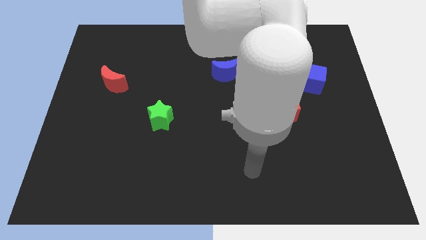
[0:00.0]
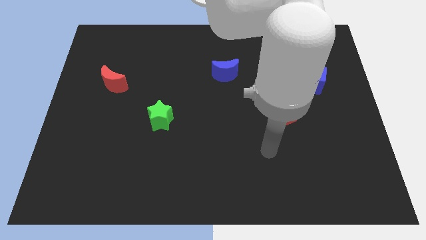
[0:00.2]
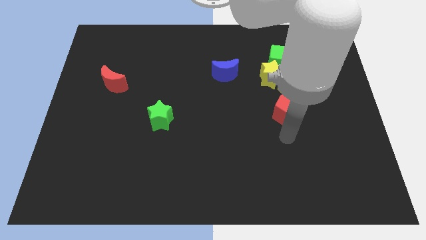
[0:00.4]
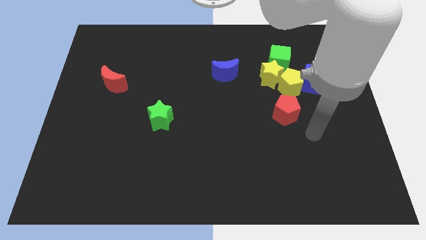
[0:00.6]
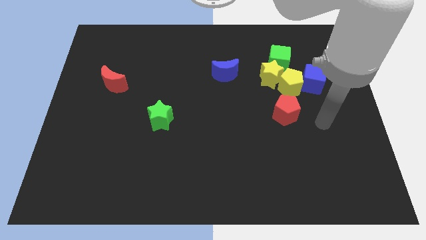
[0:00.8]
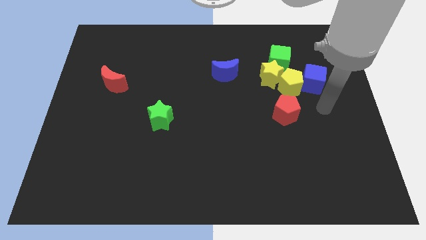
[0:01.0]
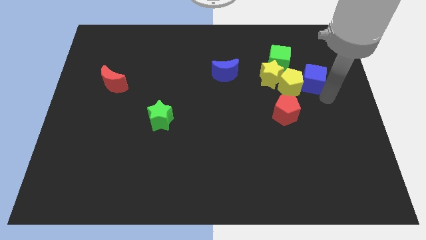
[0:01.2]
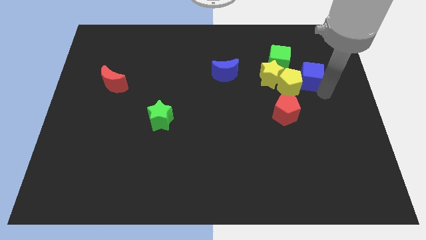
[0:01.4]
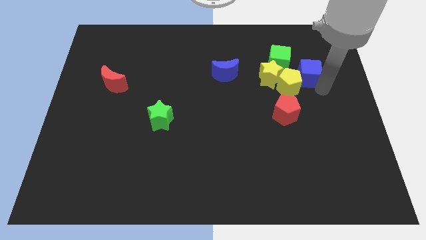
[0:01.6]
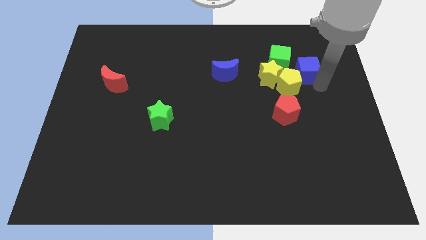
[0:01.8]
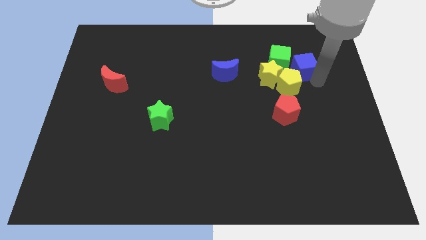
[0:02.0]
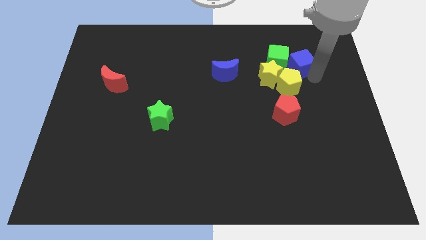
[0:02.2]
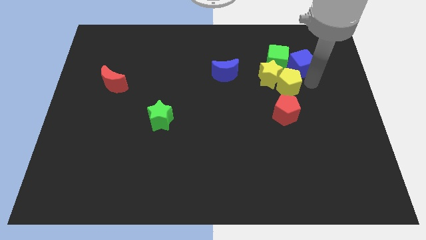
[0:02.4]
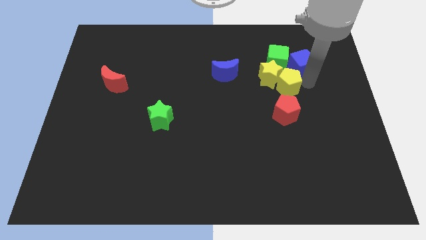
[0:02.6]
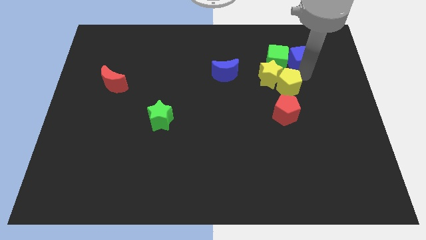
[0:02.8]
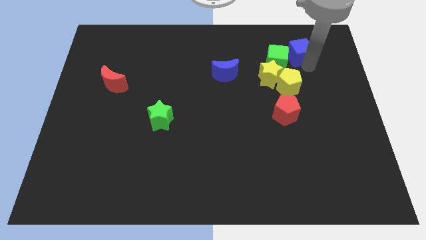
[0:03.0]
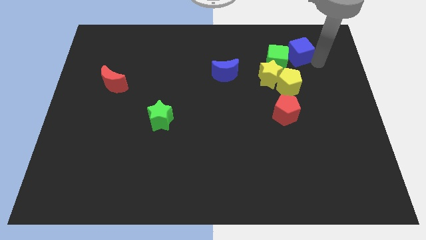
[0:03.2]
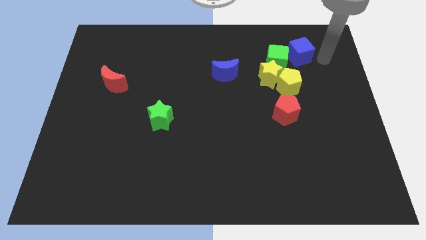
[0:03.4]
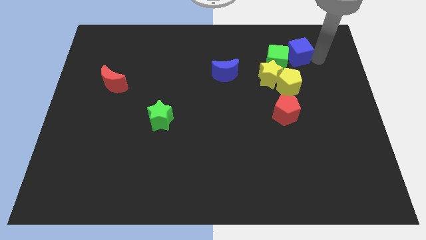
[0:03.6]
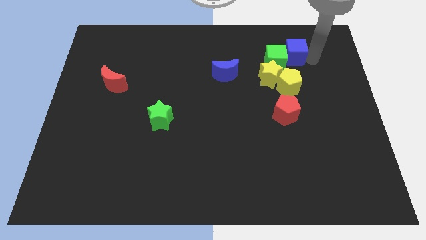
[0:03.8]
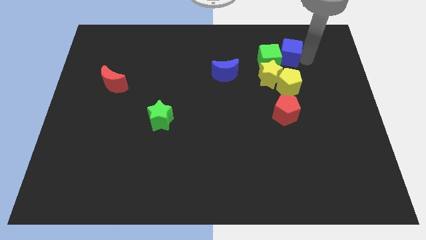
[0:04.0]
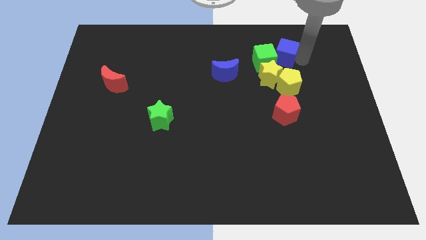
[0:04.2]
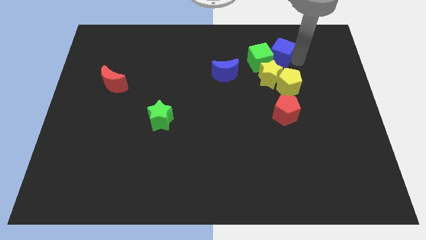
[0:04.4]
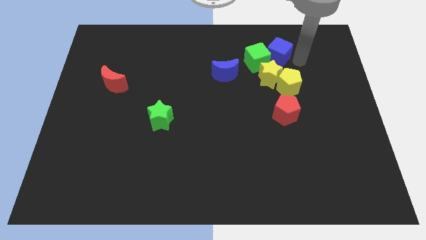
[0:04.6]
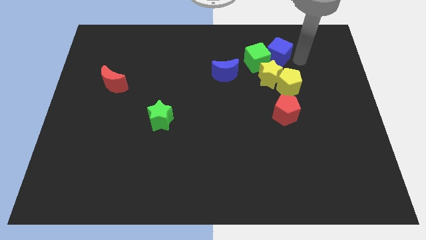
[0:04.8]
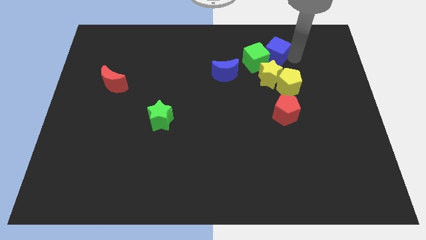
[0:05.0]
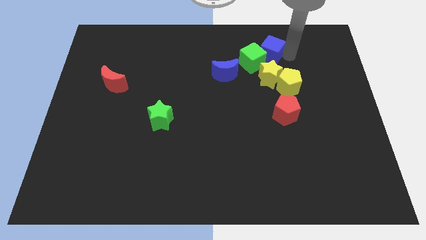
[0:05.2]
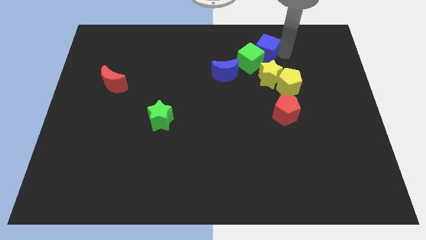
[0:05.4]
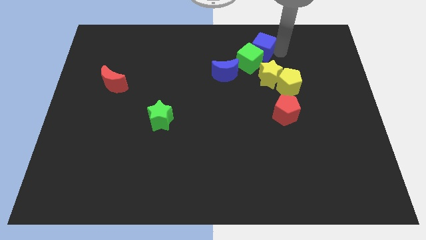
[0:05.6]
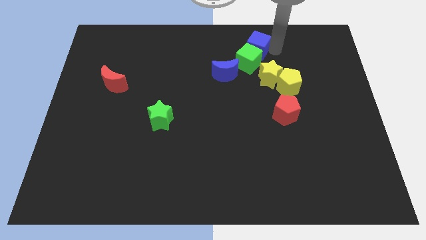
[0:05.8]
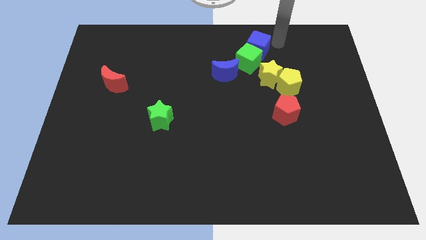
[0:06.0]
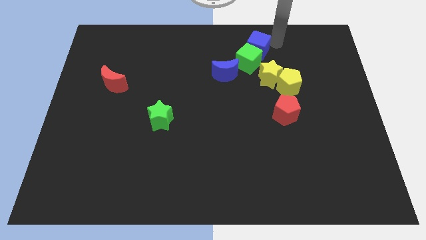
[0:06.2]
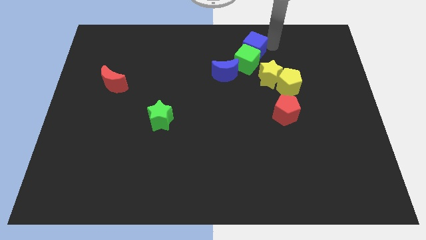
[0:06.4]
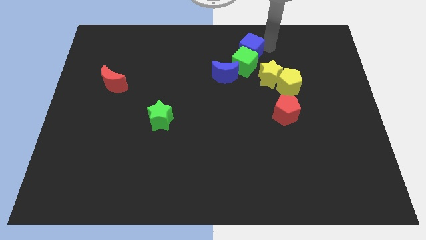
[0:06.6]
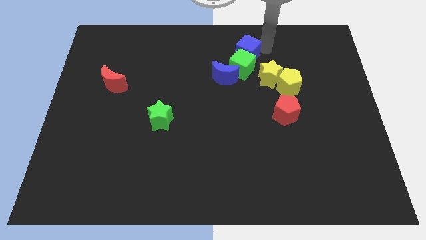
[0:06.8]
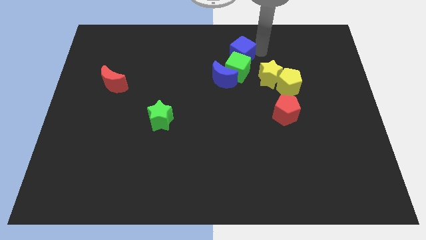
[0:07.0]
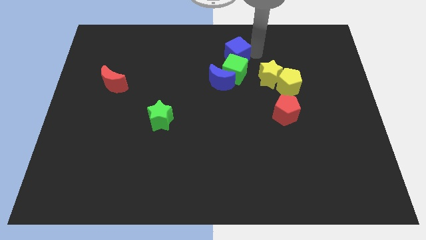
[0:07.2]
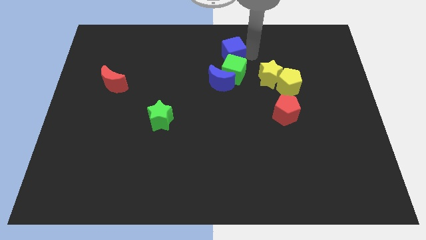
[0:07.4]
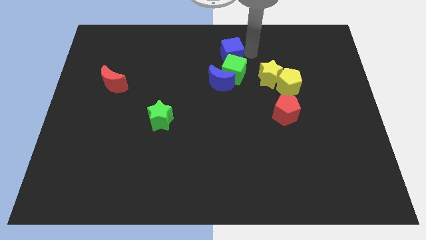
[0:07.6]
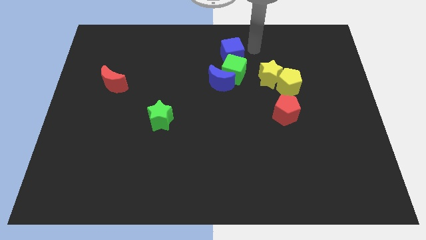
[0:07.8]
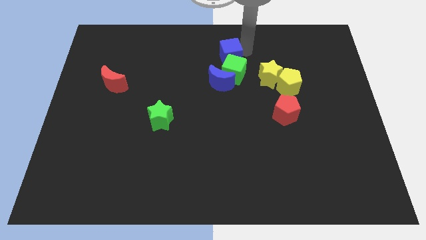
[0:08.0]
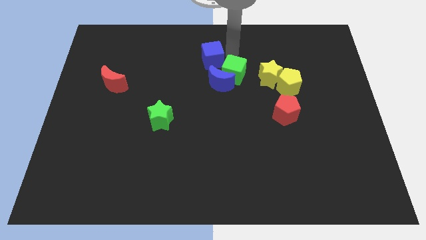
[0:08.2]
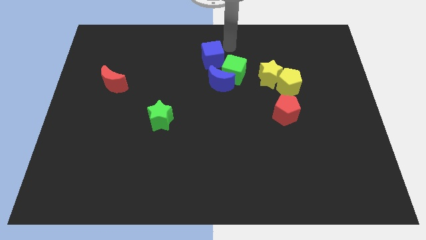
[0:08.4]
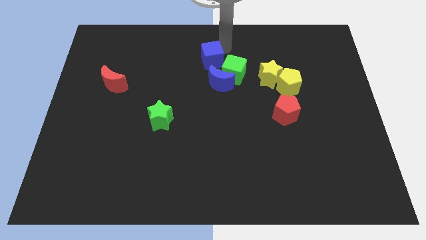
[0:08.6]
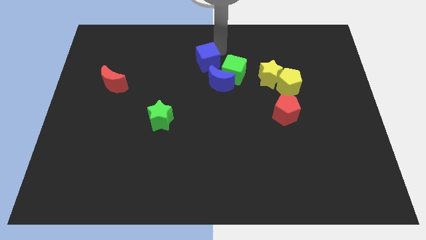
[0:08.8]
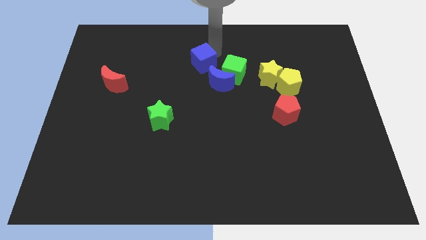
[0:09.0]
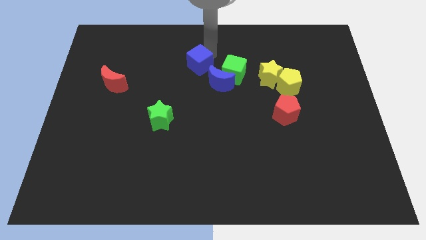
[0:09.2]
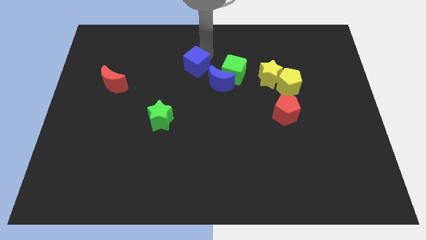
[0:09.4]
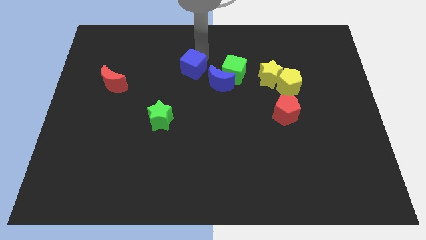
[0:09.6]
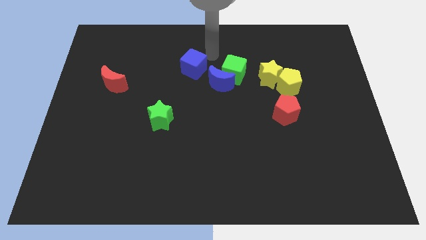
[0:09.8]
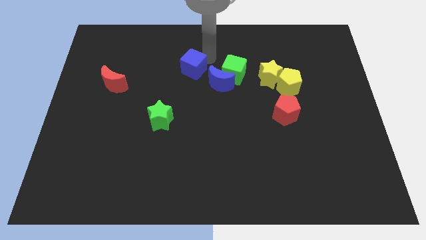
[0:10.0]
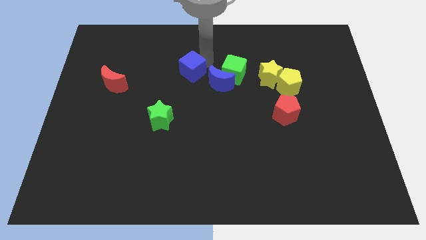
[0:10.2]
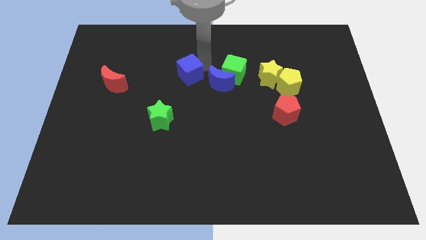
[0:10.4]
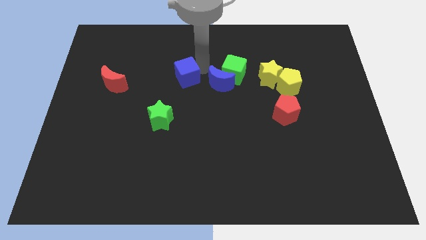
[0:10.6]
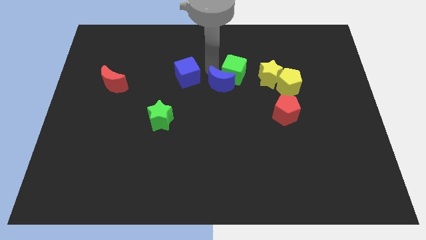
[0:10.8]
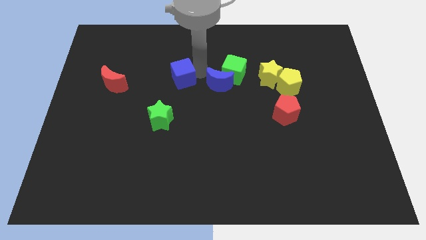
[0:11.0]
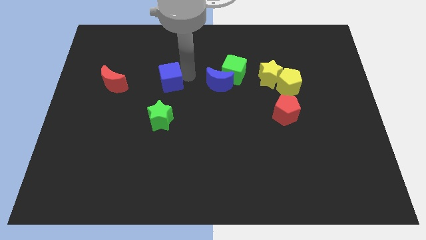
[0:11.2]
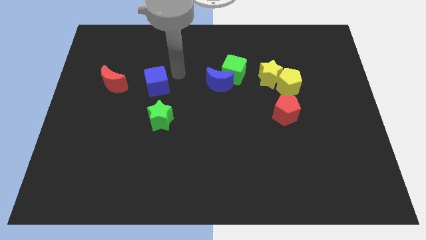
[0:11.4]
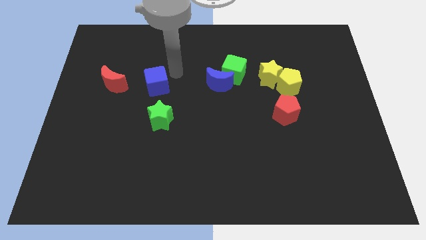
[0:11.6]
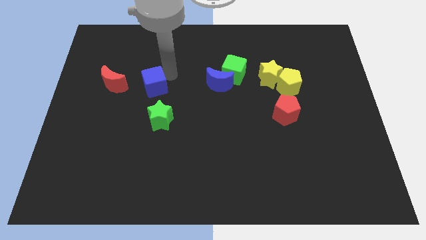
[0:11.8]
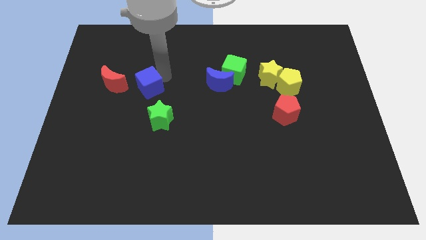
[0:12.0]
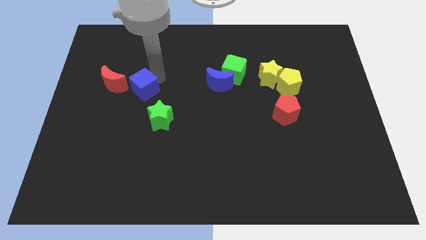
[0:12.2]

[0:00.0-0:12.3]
slide the blue cube to the bottom right side of the red moon
